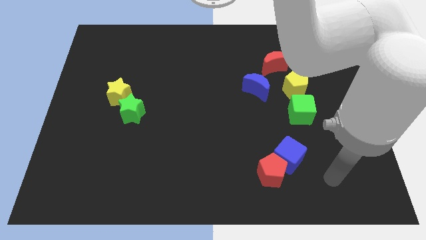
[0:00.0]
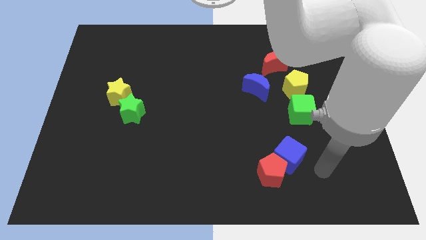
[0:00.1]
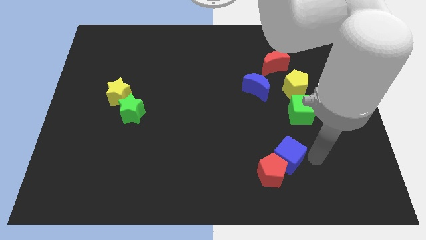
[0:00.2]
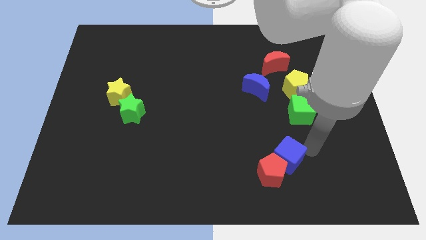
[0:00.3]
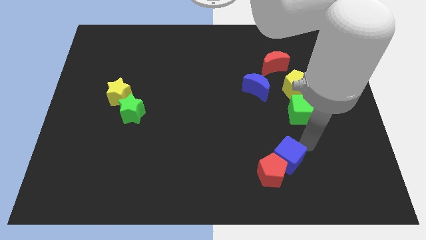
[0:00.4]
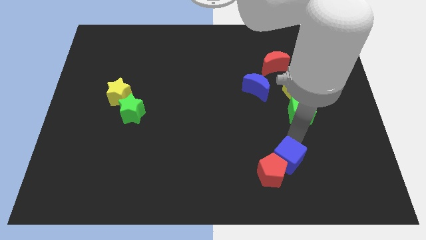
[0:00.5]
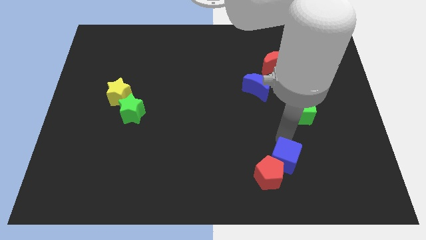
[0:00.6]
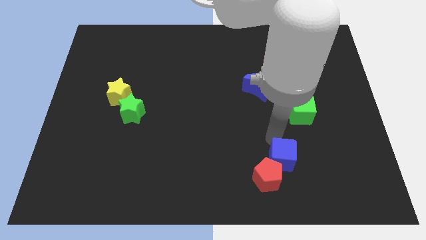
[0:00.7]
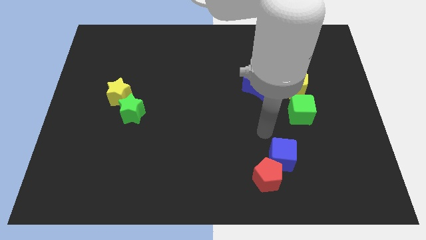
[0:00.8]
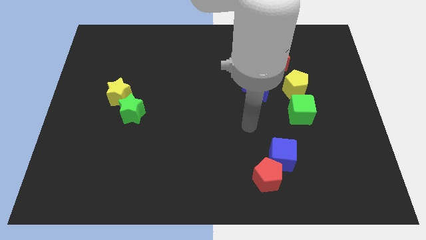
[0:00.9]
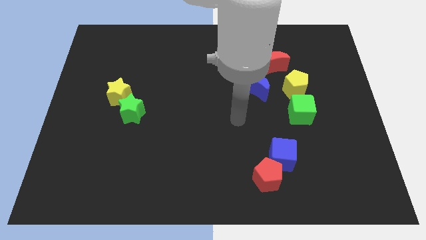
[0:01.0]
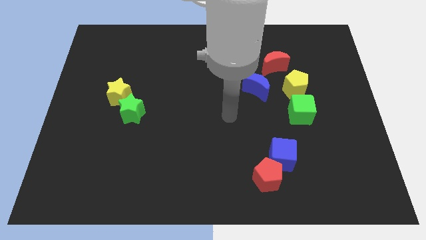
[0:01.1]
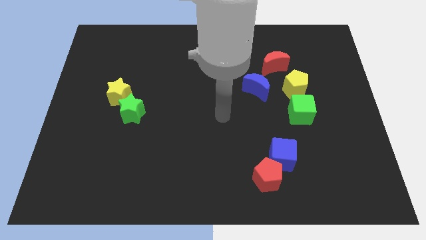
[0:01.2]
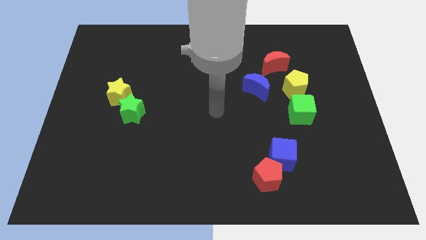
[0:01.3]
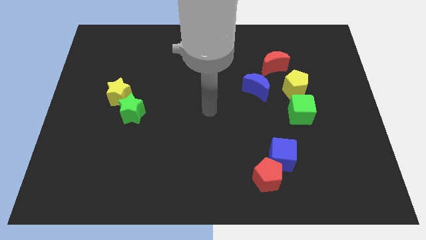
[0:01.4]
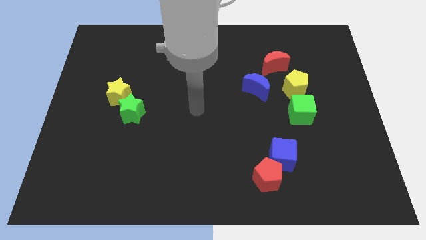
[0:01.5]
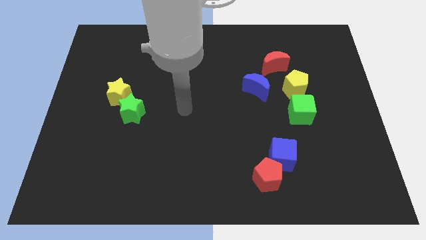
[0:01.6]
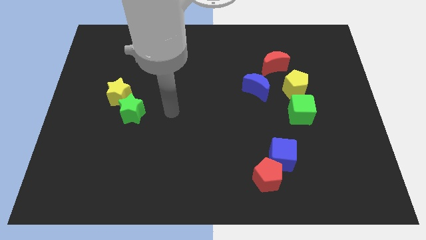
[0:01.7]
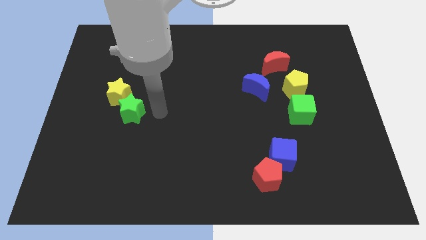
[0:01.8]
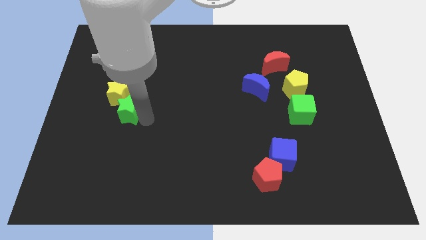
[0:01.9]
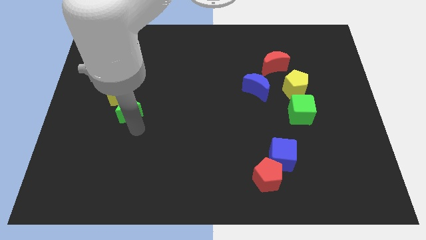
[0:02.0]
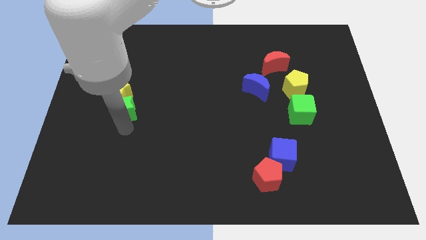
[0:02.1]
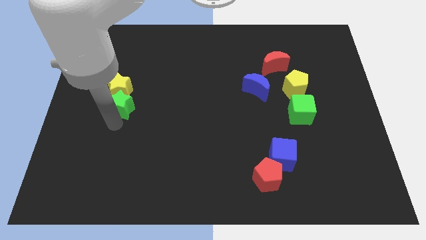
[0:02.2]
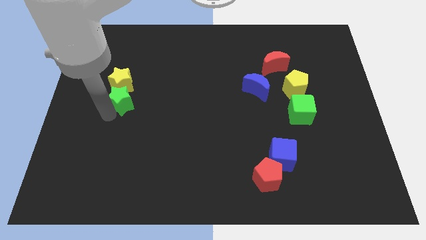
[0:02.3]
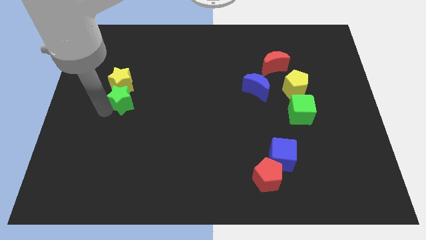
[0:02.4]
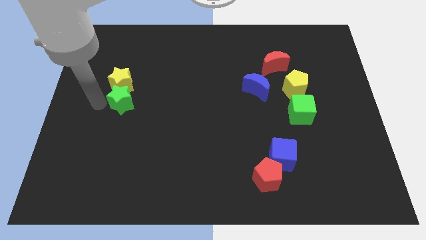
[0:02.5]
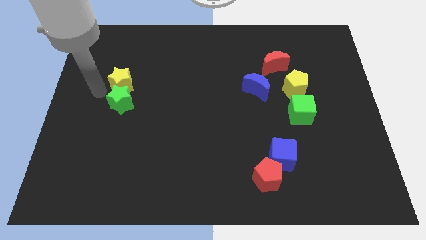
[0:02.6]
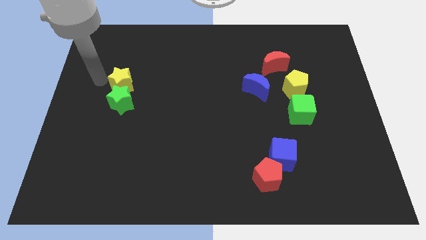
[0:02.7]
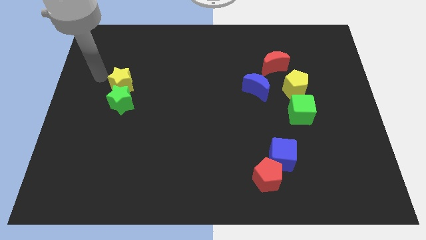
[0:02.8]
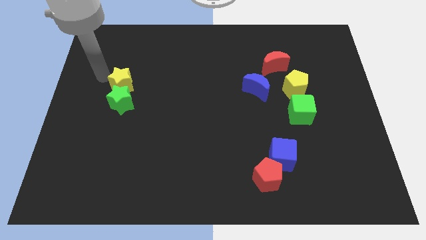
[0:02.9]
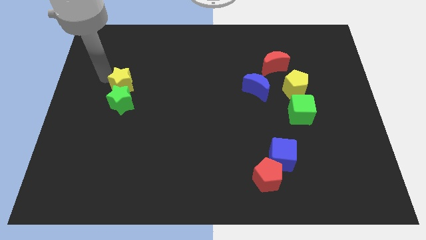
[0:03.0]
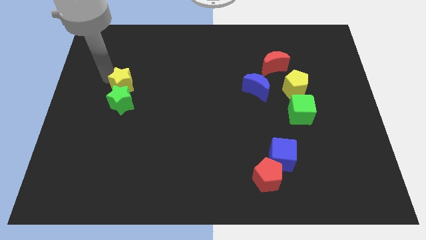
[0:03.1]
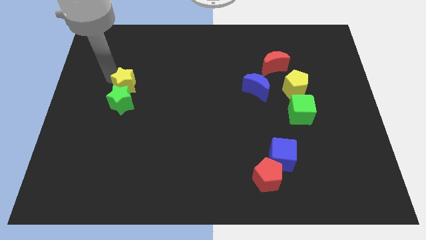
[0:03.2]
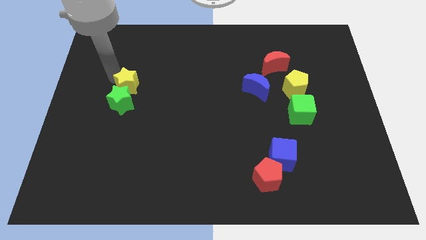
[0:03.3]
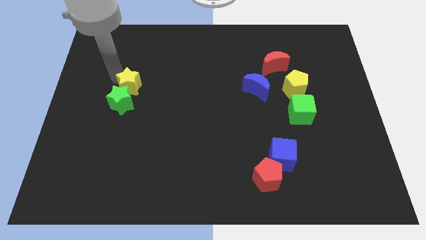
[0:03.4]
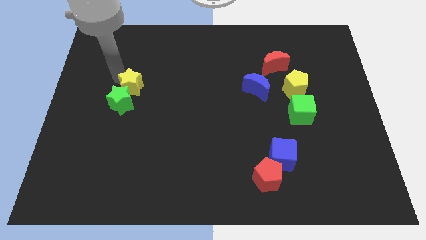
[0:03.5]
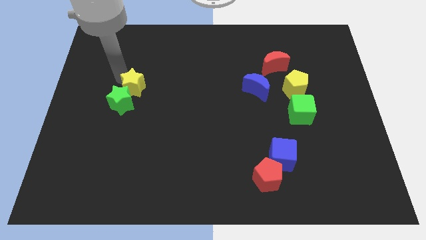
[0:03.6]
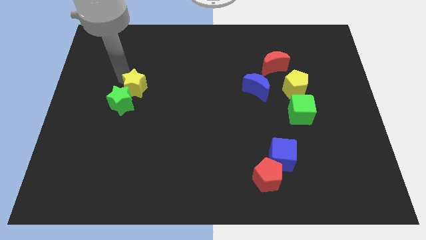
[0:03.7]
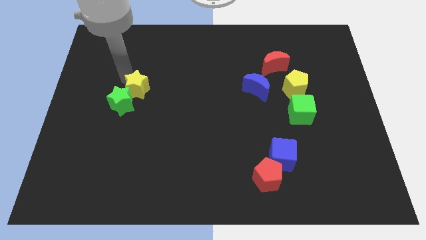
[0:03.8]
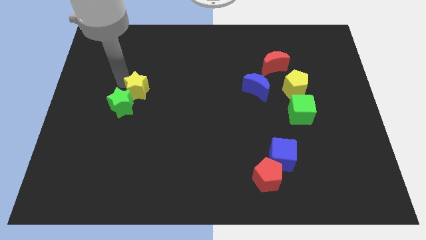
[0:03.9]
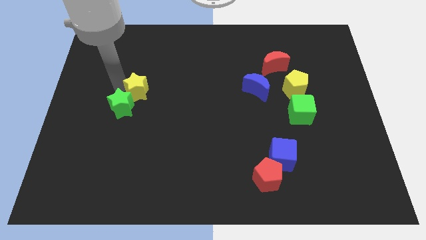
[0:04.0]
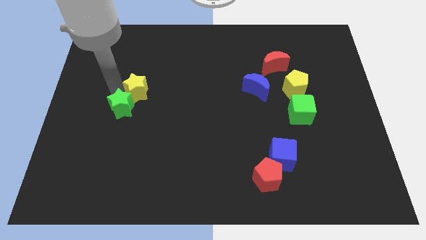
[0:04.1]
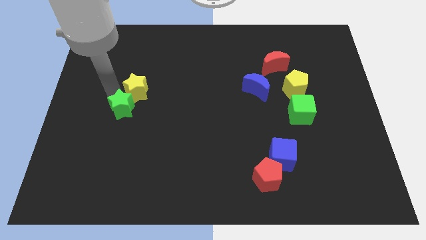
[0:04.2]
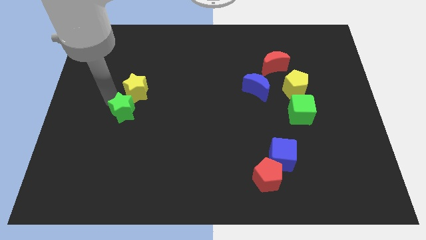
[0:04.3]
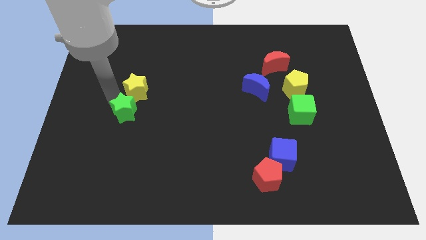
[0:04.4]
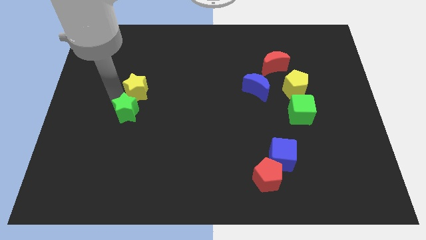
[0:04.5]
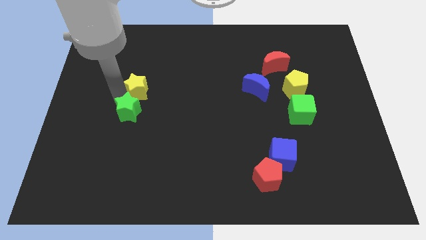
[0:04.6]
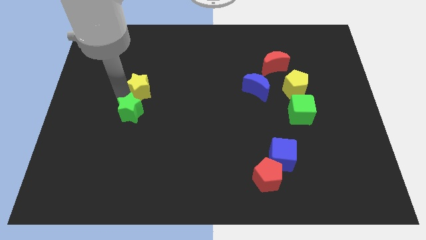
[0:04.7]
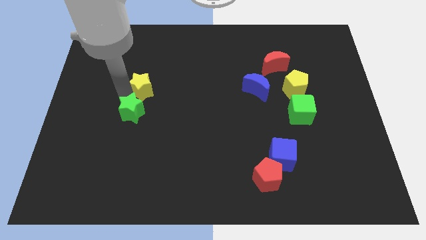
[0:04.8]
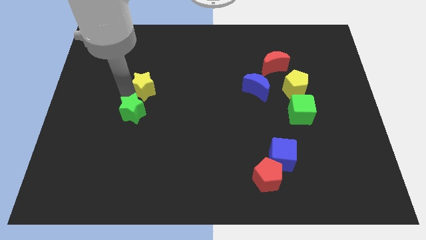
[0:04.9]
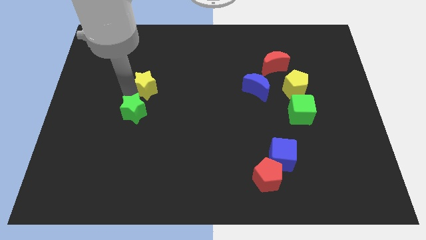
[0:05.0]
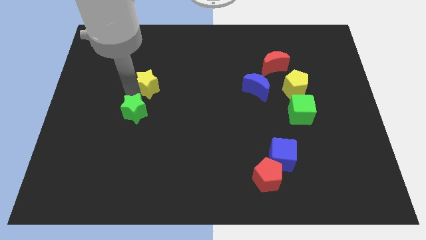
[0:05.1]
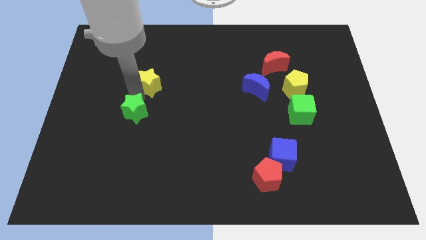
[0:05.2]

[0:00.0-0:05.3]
push the yellow star up and then right somewhat

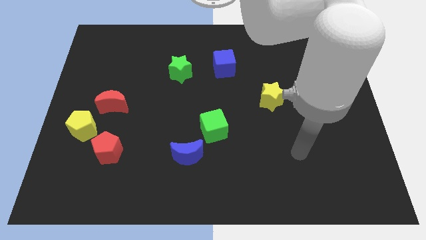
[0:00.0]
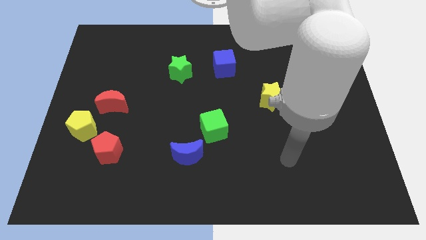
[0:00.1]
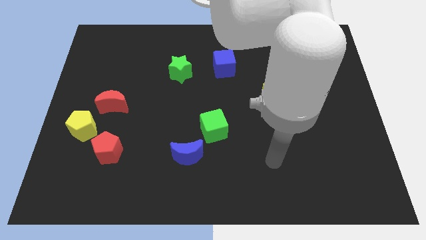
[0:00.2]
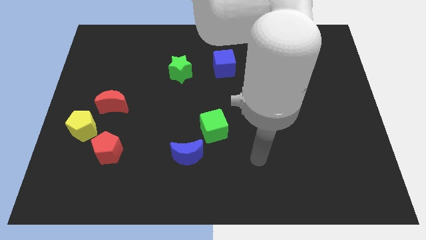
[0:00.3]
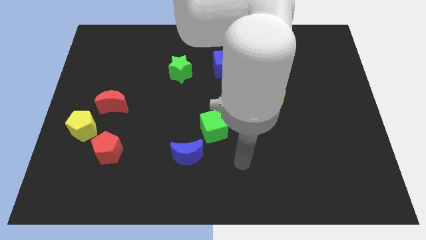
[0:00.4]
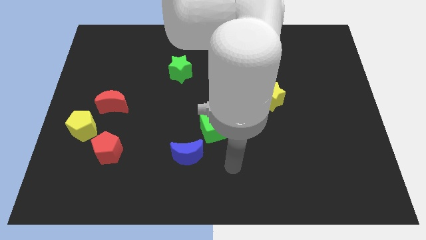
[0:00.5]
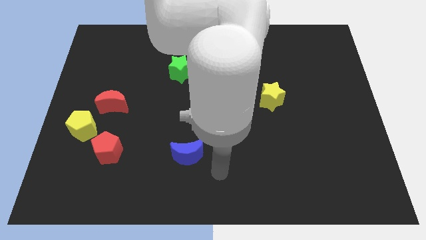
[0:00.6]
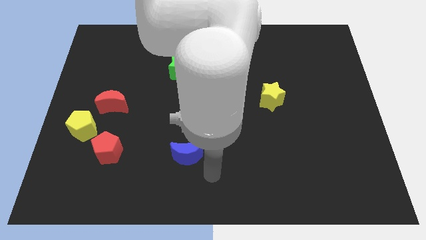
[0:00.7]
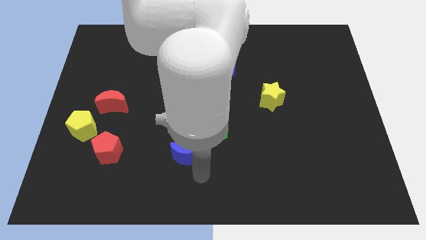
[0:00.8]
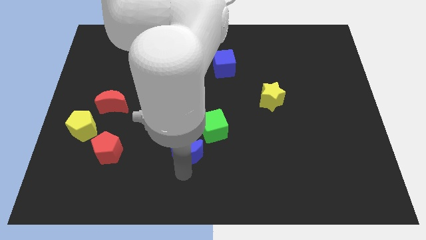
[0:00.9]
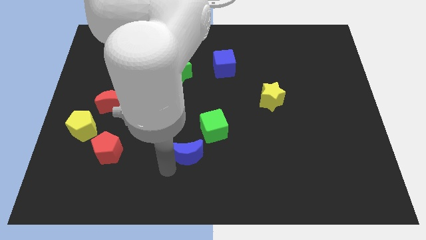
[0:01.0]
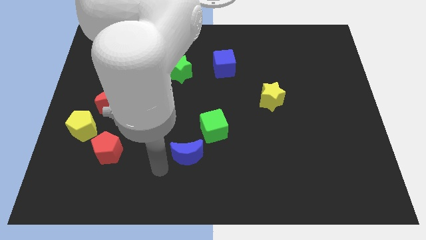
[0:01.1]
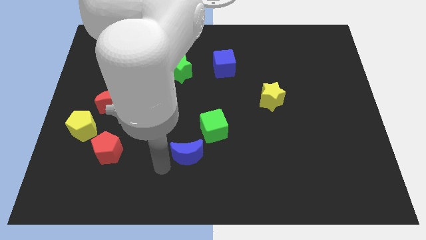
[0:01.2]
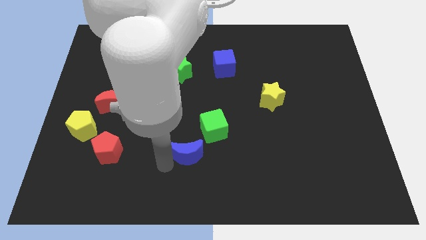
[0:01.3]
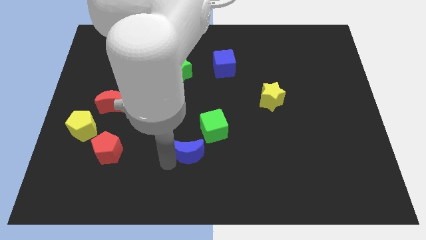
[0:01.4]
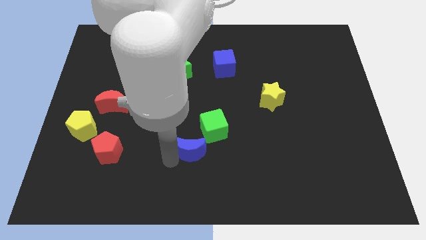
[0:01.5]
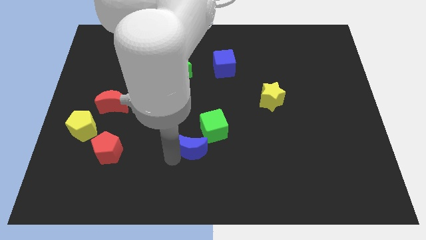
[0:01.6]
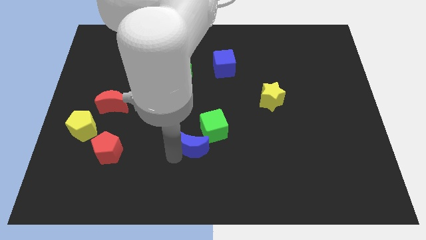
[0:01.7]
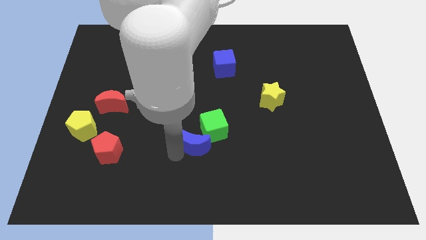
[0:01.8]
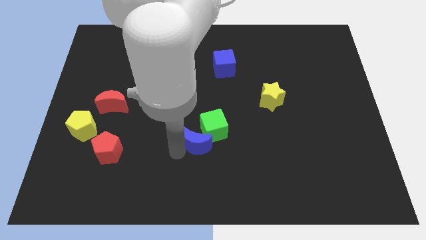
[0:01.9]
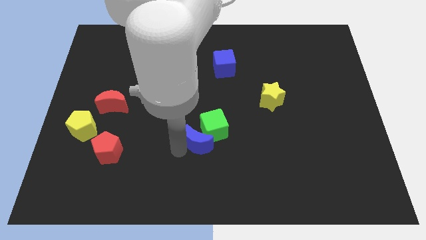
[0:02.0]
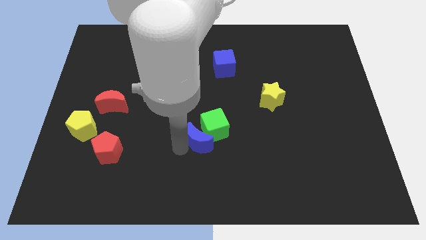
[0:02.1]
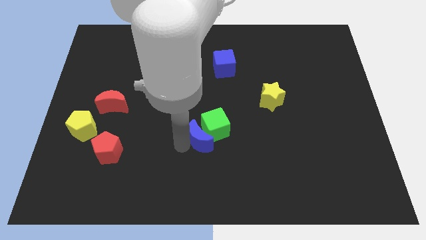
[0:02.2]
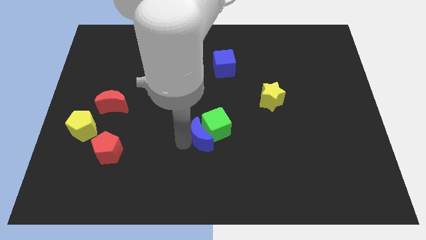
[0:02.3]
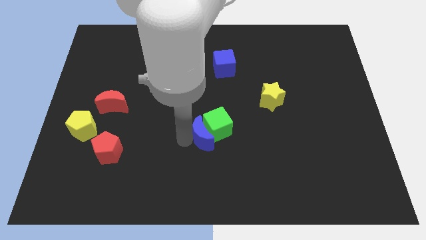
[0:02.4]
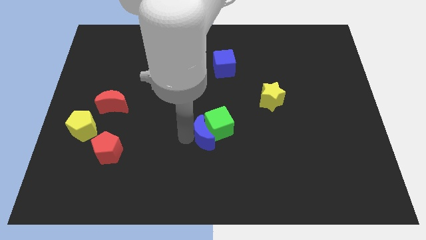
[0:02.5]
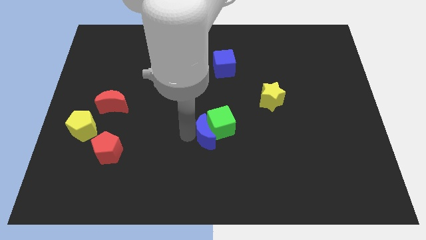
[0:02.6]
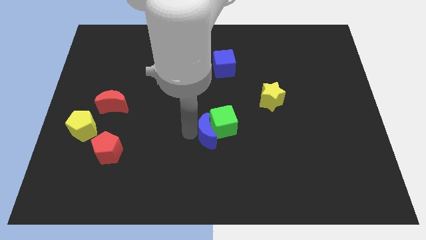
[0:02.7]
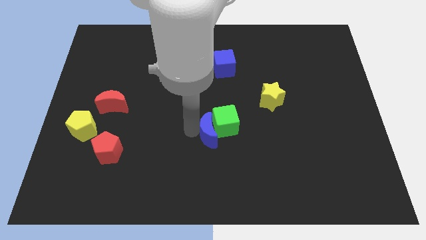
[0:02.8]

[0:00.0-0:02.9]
slightly slide the blue moon up and to the right

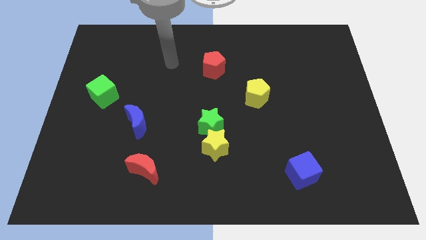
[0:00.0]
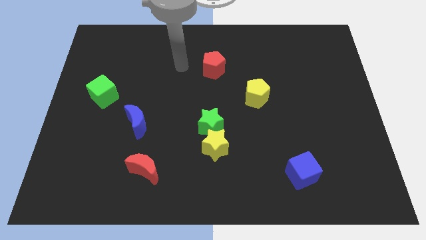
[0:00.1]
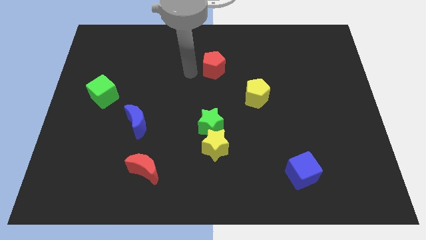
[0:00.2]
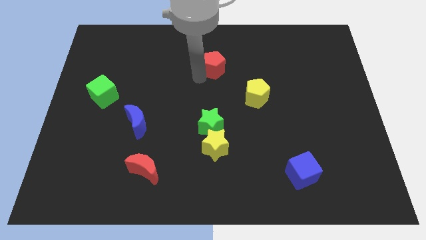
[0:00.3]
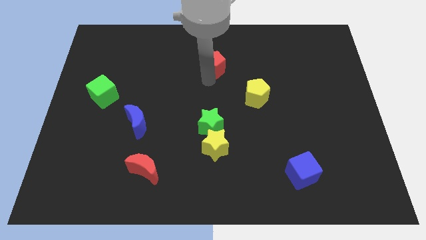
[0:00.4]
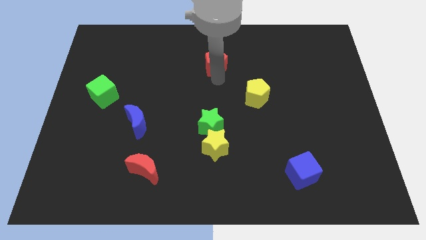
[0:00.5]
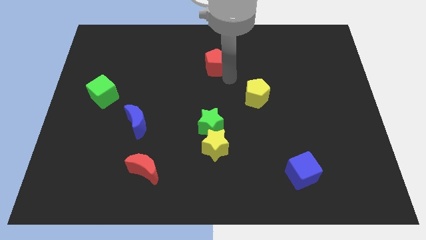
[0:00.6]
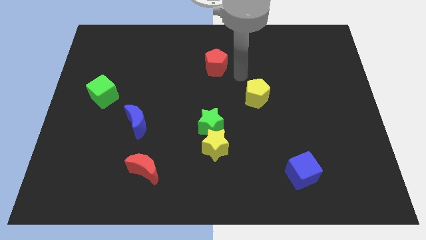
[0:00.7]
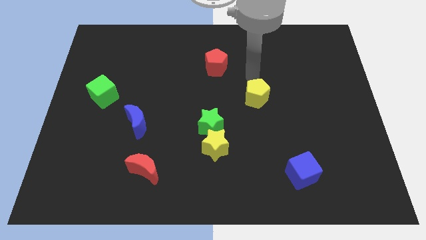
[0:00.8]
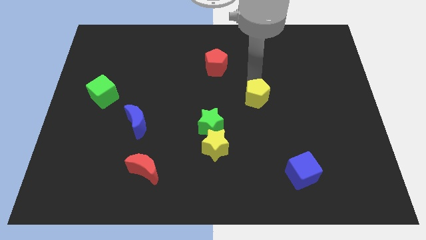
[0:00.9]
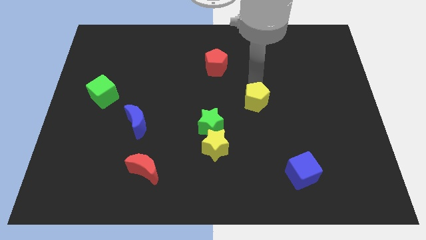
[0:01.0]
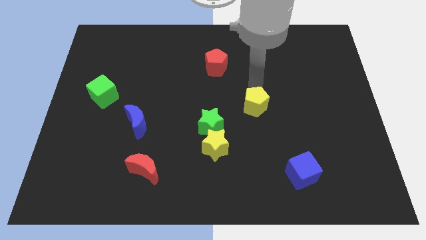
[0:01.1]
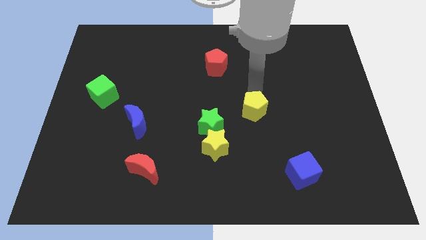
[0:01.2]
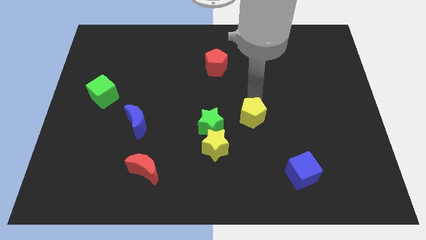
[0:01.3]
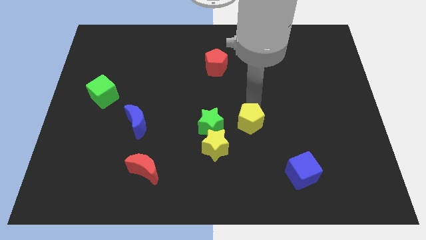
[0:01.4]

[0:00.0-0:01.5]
push the yellow pentagon a bit downwards
